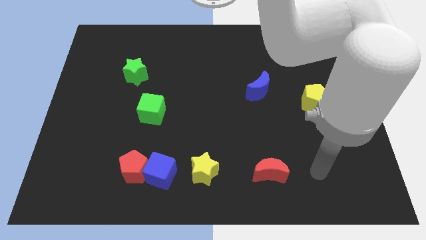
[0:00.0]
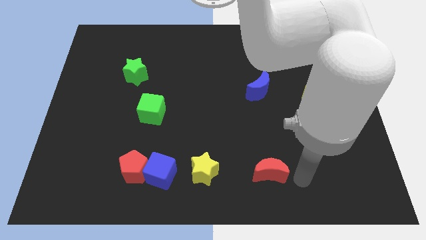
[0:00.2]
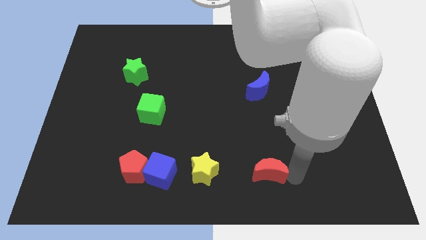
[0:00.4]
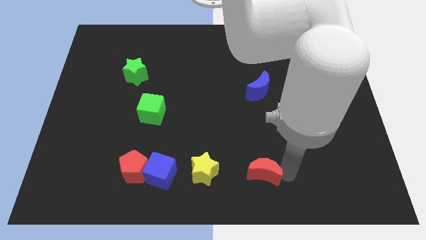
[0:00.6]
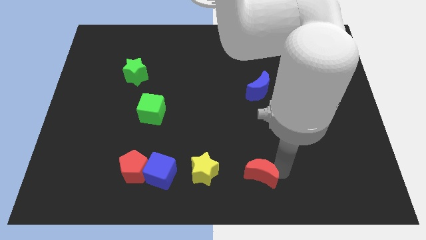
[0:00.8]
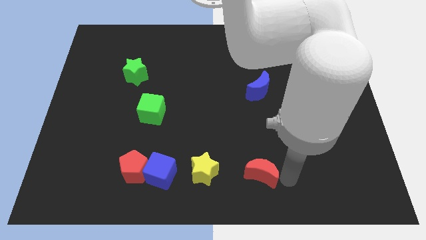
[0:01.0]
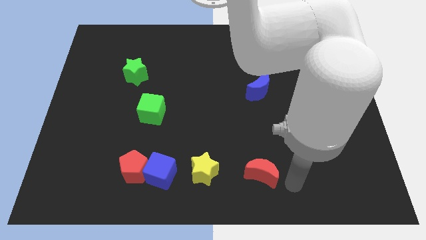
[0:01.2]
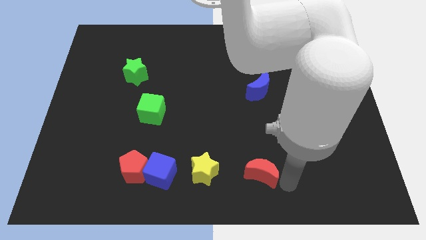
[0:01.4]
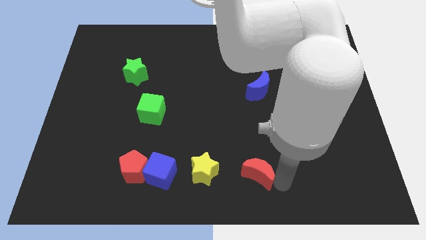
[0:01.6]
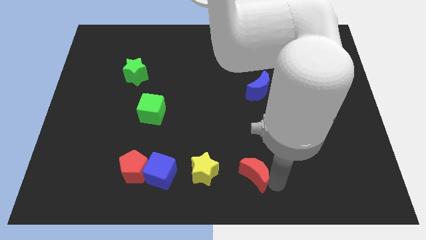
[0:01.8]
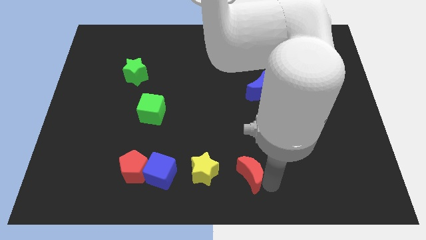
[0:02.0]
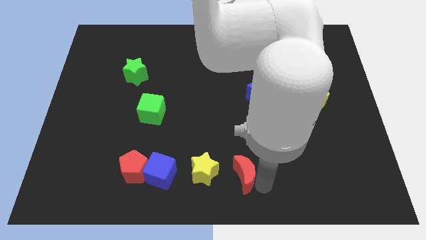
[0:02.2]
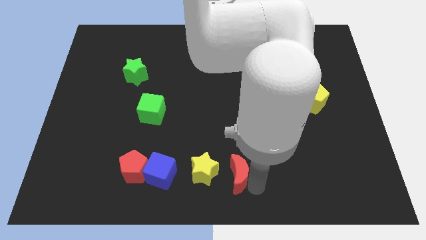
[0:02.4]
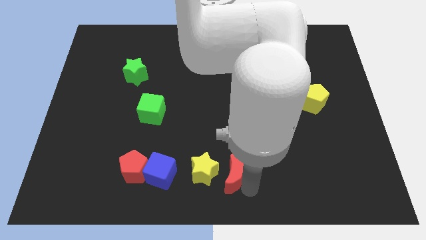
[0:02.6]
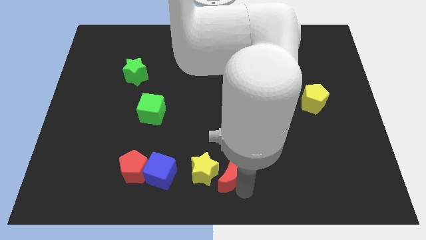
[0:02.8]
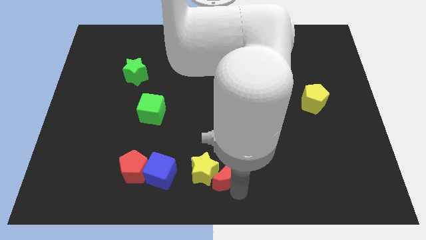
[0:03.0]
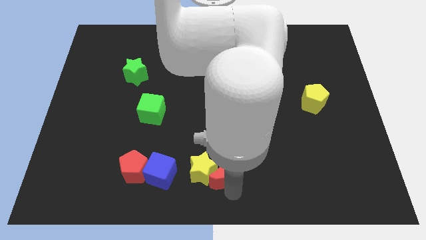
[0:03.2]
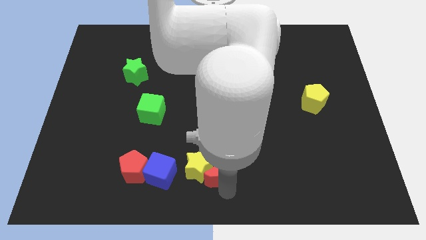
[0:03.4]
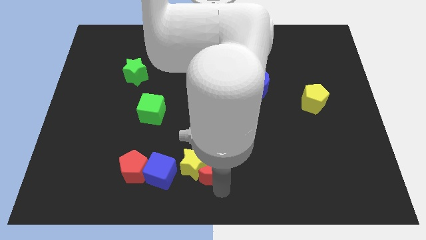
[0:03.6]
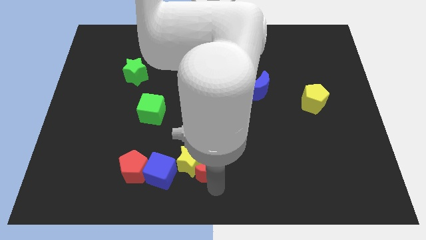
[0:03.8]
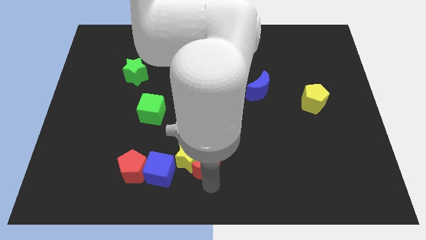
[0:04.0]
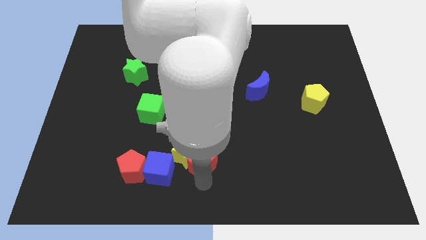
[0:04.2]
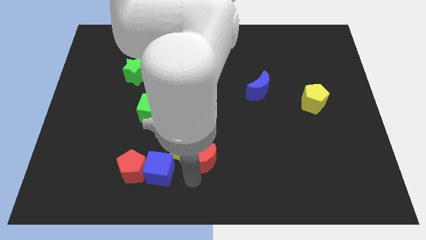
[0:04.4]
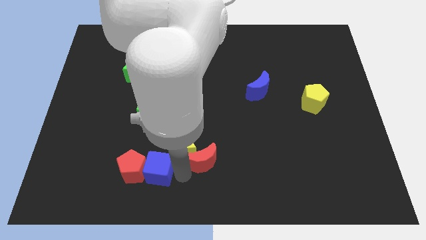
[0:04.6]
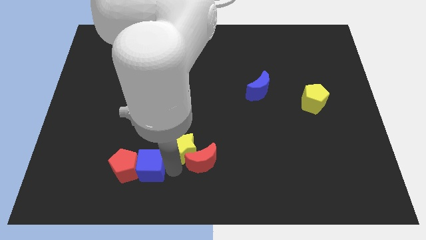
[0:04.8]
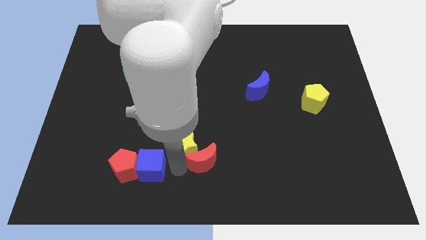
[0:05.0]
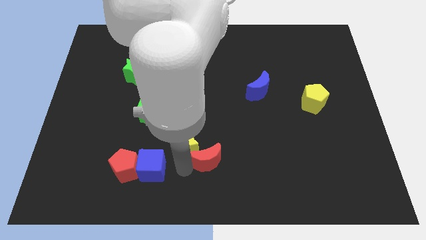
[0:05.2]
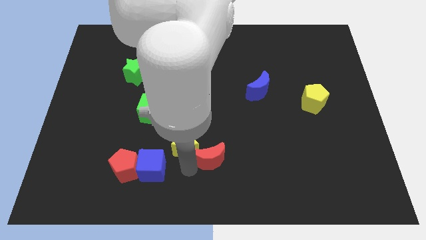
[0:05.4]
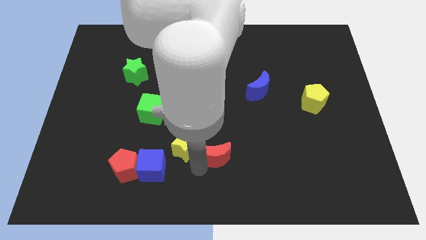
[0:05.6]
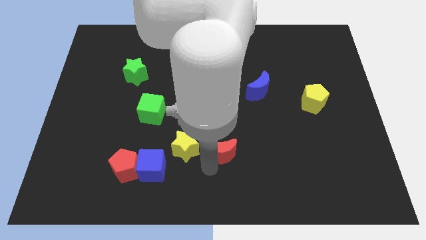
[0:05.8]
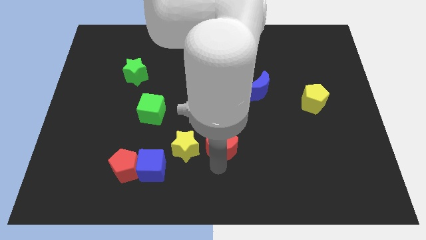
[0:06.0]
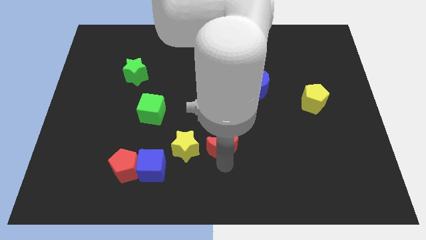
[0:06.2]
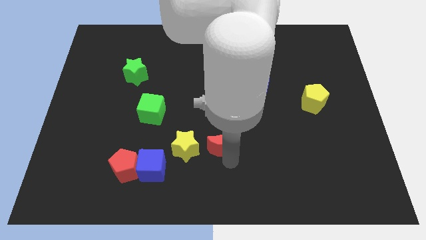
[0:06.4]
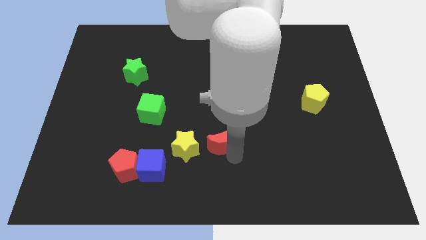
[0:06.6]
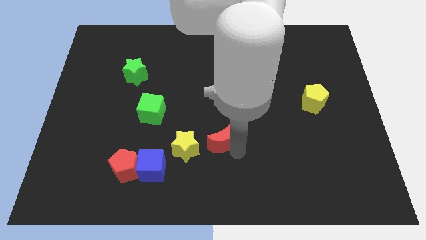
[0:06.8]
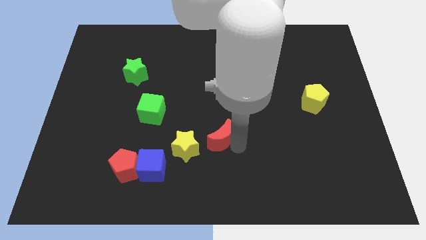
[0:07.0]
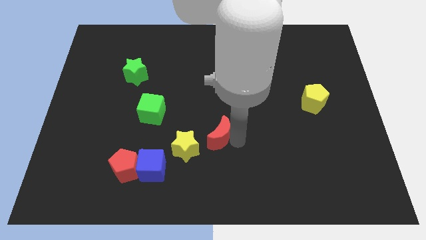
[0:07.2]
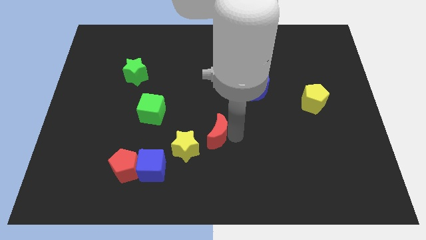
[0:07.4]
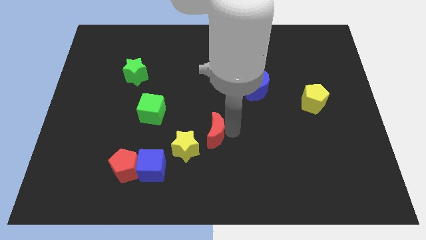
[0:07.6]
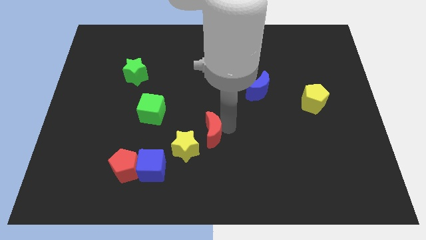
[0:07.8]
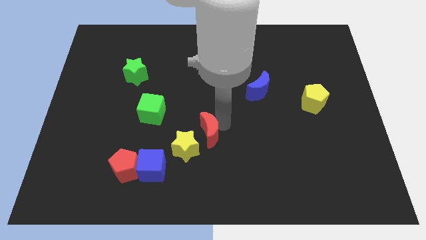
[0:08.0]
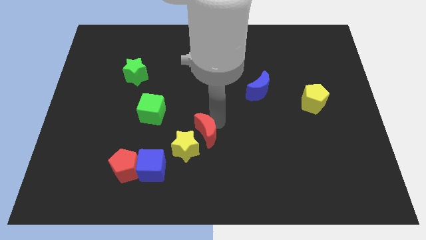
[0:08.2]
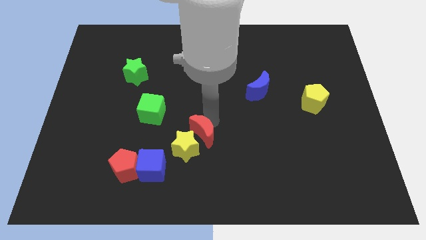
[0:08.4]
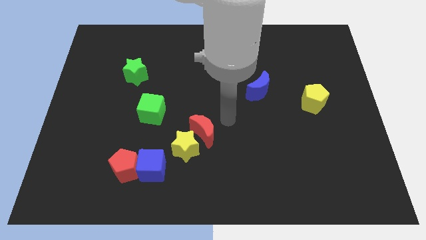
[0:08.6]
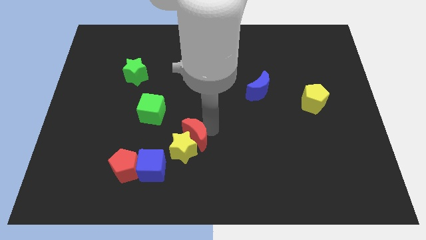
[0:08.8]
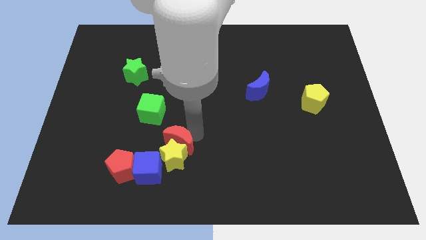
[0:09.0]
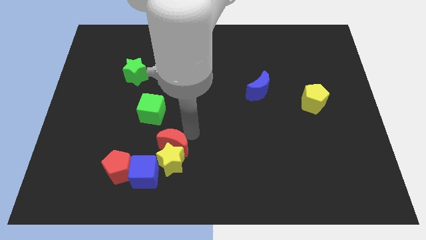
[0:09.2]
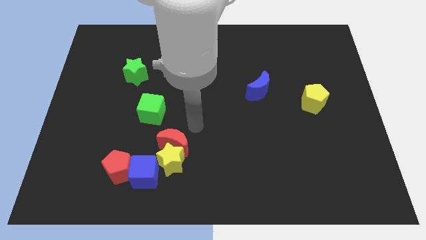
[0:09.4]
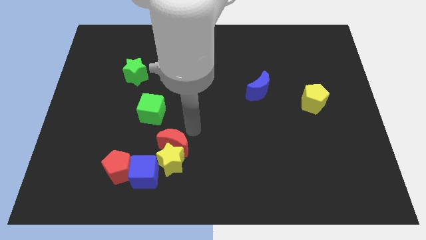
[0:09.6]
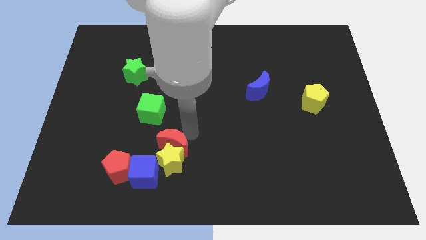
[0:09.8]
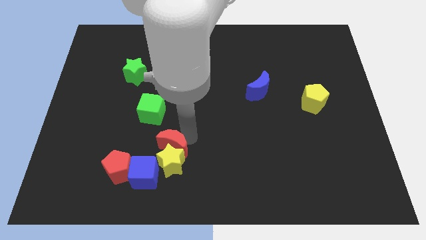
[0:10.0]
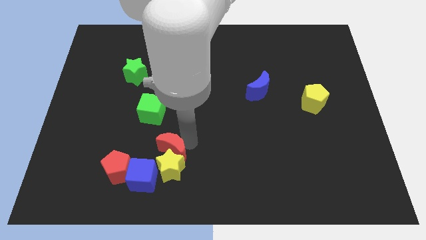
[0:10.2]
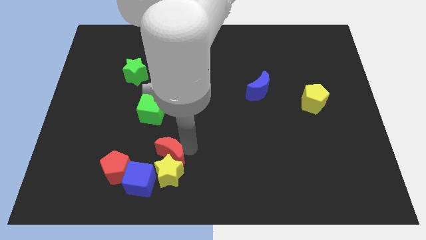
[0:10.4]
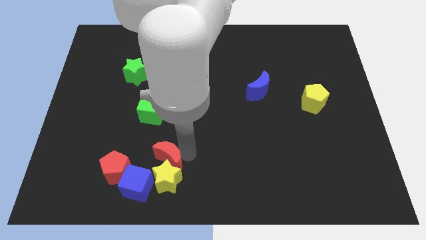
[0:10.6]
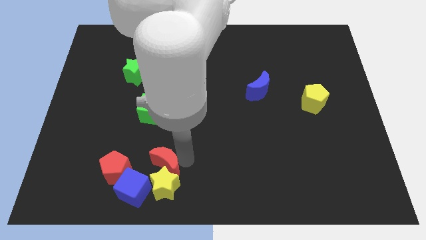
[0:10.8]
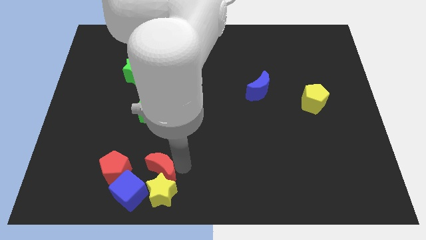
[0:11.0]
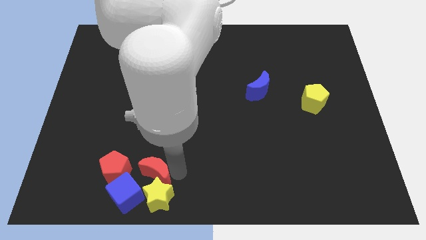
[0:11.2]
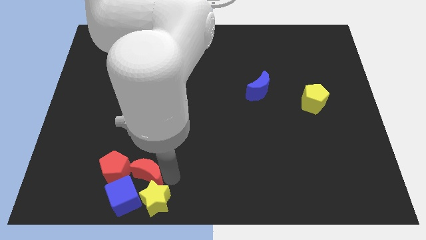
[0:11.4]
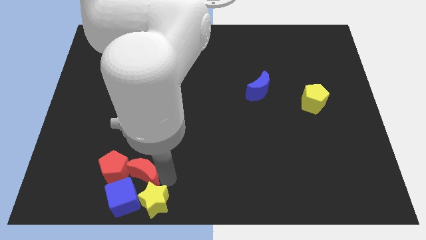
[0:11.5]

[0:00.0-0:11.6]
slide the red moon close to the red pentagon

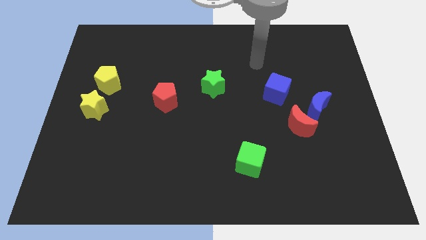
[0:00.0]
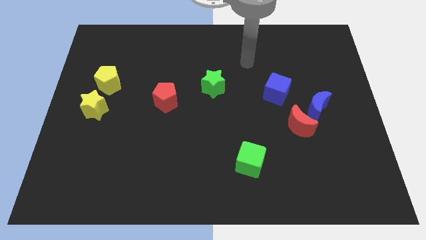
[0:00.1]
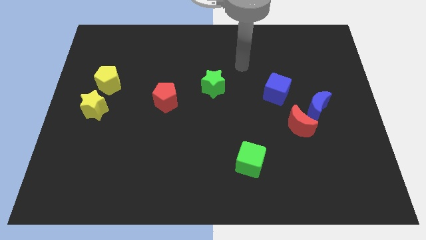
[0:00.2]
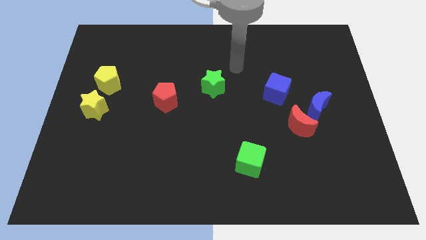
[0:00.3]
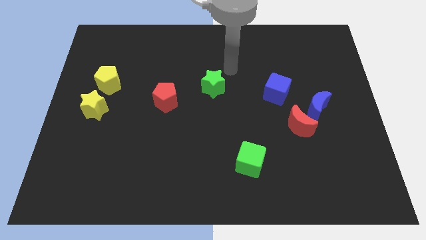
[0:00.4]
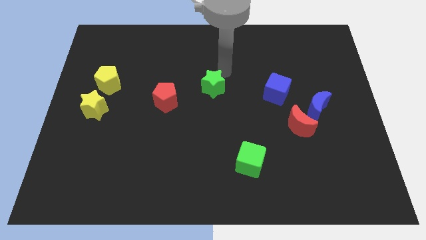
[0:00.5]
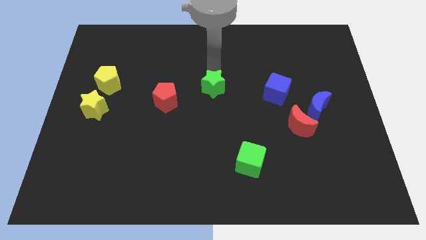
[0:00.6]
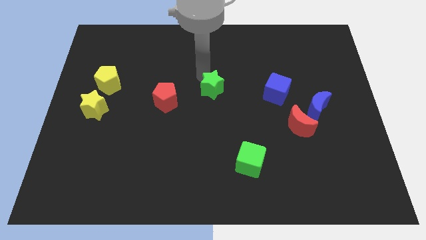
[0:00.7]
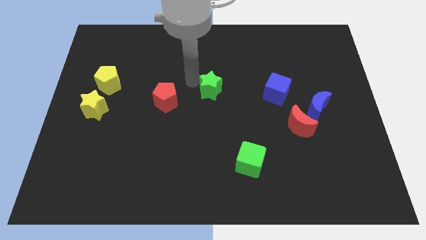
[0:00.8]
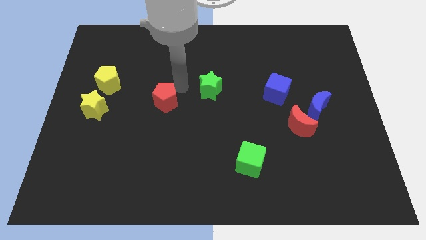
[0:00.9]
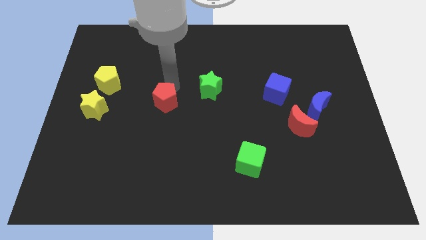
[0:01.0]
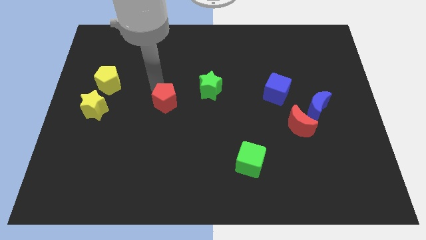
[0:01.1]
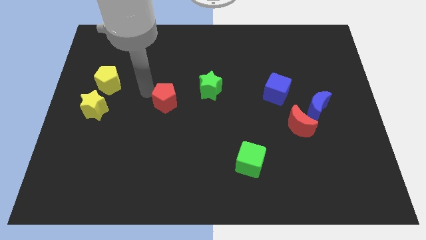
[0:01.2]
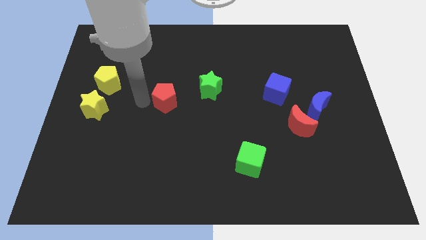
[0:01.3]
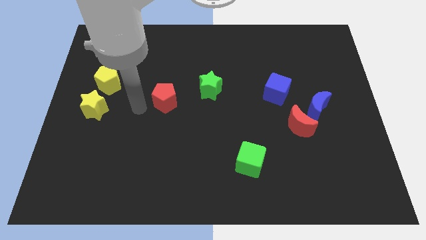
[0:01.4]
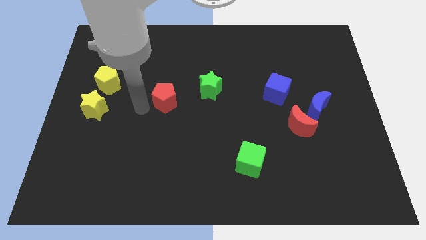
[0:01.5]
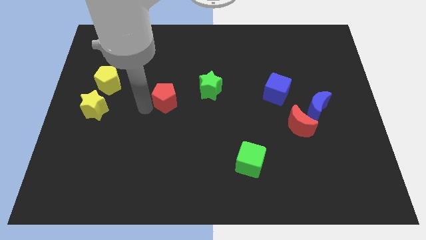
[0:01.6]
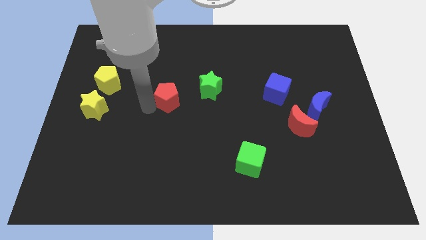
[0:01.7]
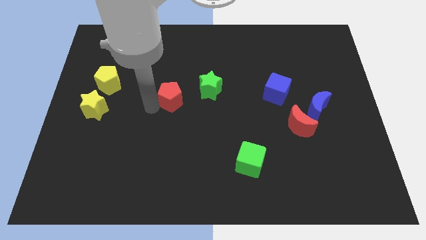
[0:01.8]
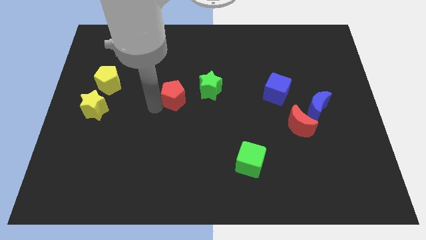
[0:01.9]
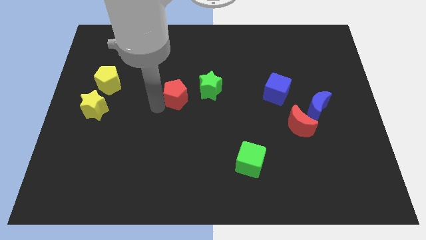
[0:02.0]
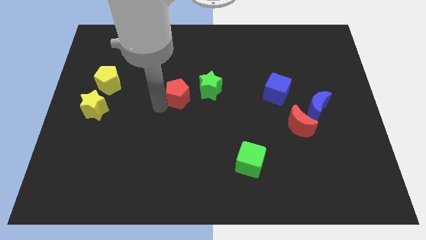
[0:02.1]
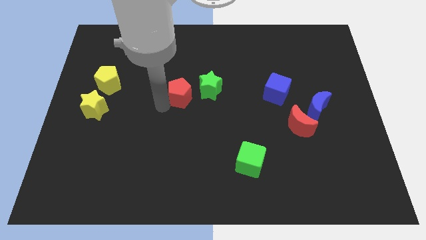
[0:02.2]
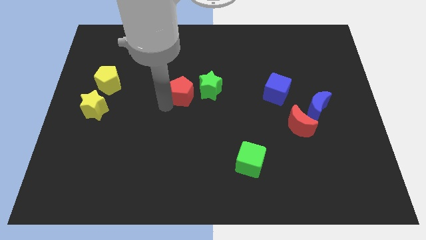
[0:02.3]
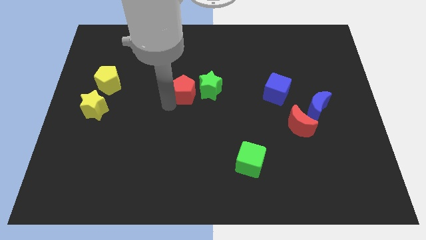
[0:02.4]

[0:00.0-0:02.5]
slide the red pentagon close to the green star
